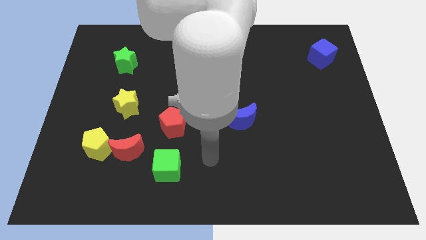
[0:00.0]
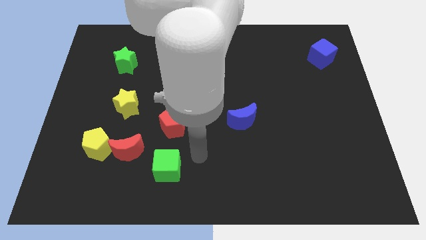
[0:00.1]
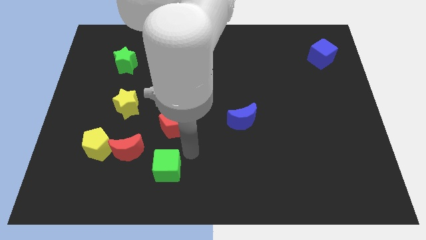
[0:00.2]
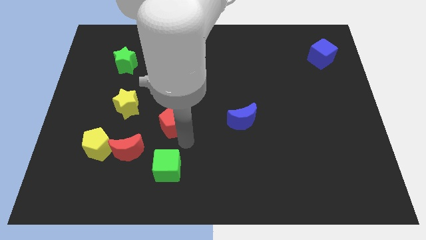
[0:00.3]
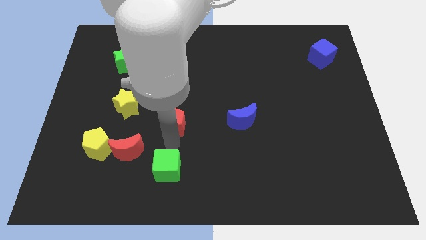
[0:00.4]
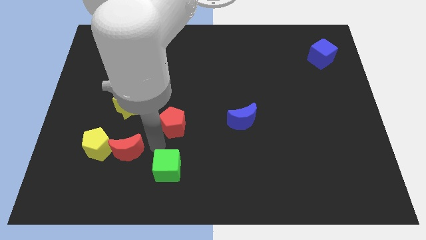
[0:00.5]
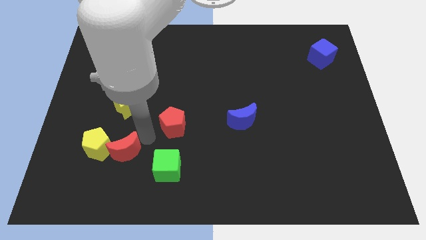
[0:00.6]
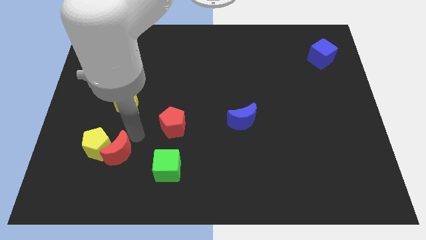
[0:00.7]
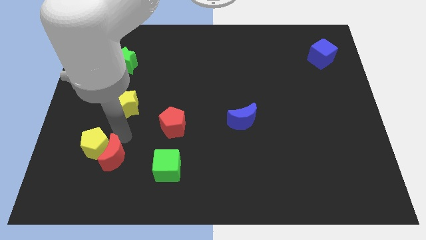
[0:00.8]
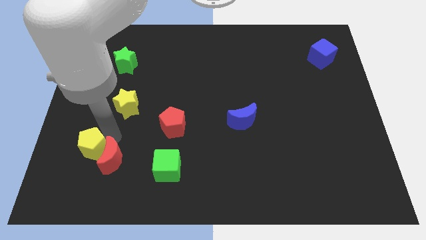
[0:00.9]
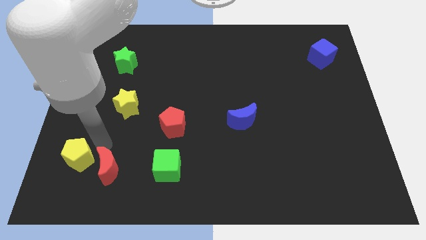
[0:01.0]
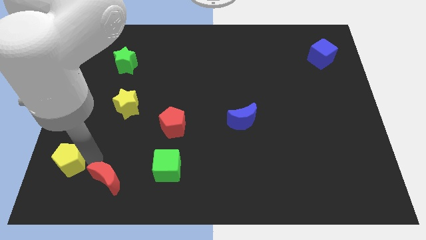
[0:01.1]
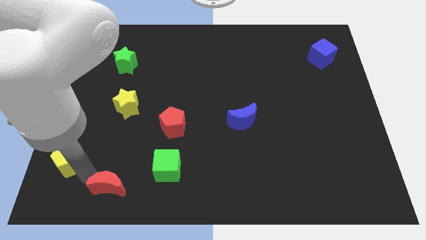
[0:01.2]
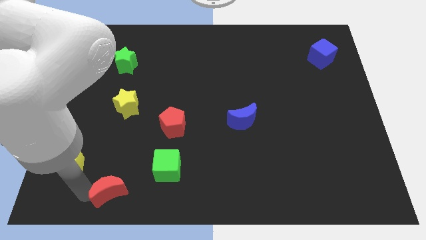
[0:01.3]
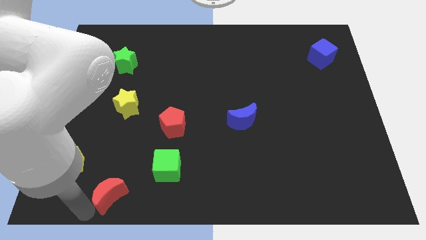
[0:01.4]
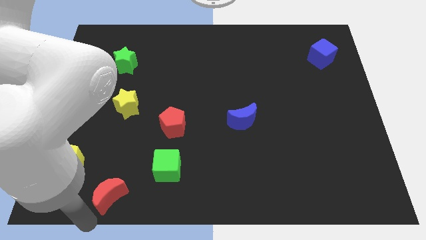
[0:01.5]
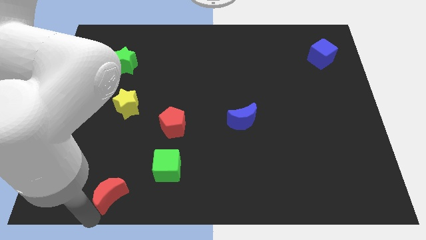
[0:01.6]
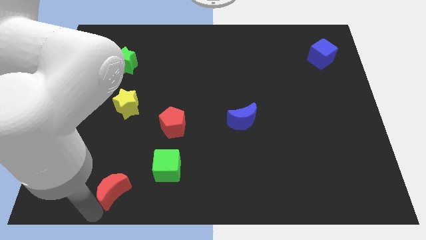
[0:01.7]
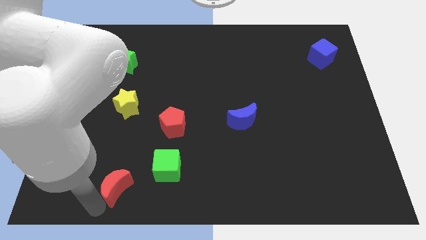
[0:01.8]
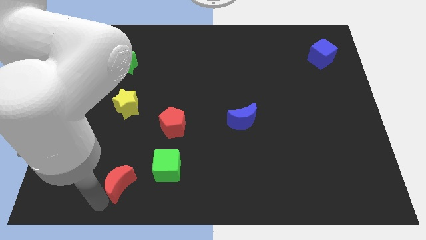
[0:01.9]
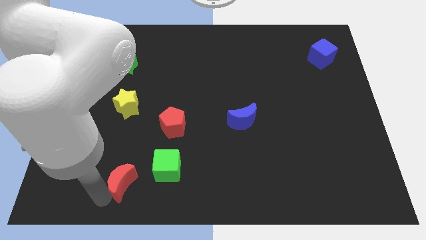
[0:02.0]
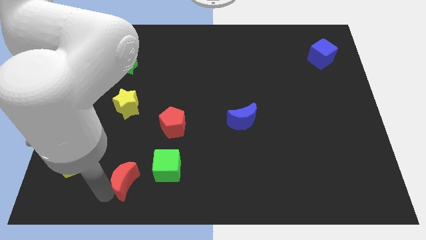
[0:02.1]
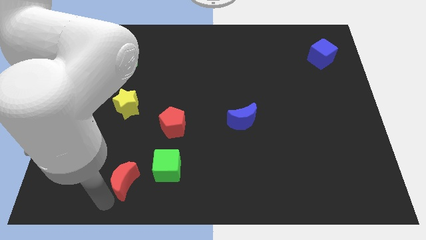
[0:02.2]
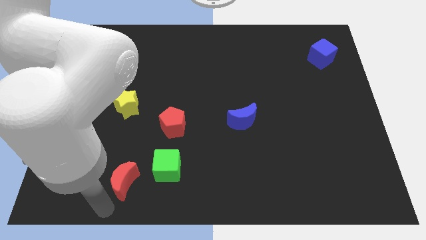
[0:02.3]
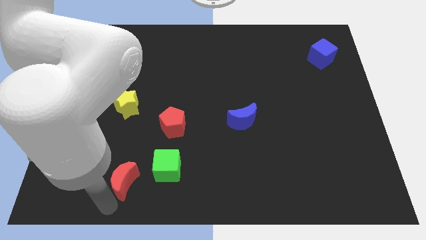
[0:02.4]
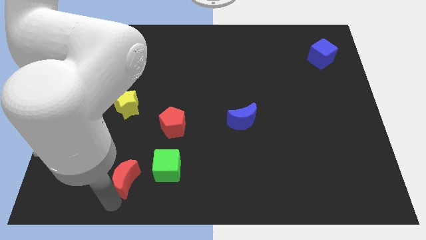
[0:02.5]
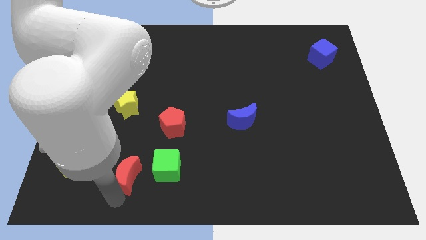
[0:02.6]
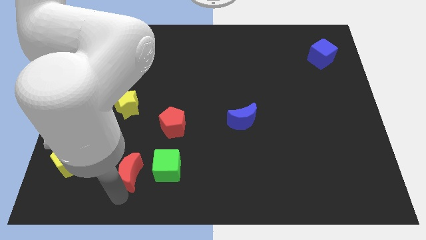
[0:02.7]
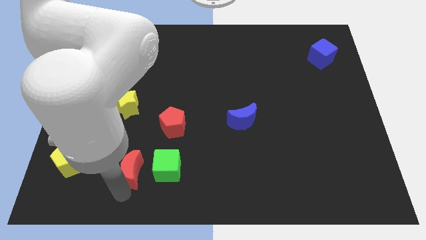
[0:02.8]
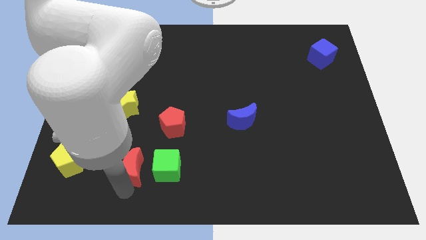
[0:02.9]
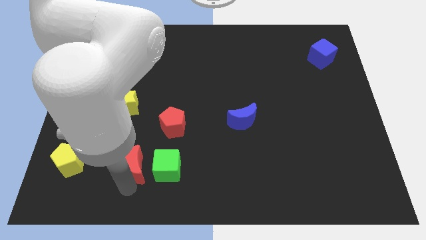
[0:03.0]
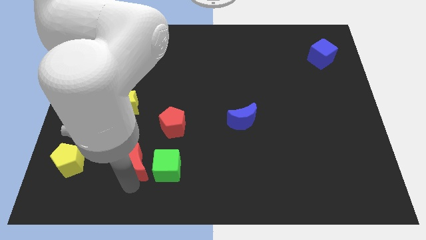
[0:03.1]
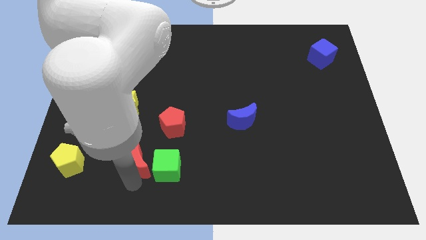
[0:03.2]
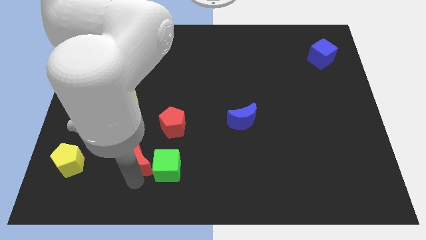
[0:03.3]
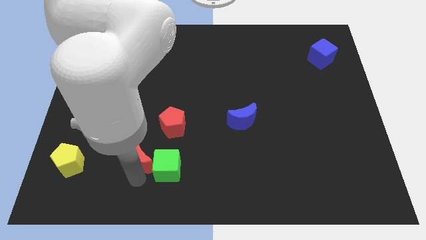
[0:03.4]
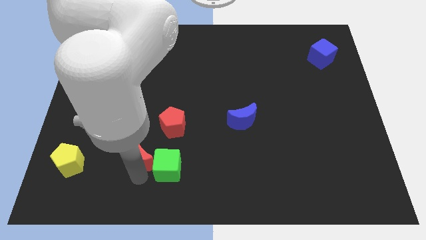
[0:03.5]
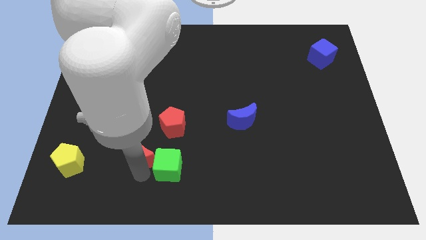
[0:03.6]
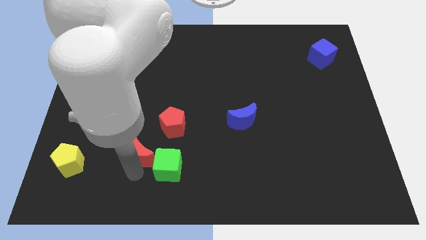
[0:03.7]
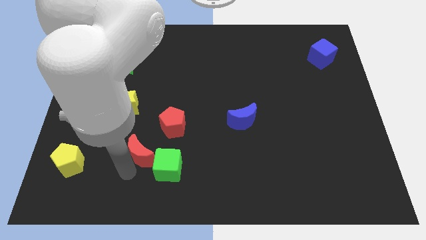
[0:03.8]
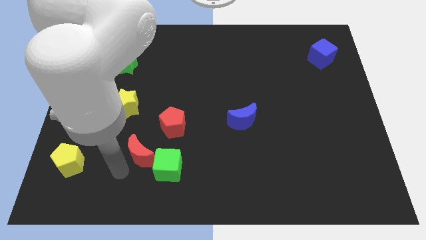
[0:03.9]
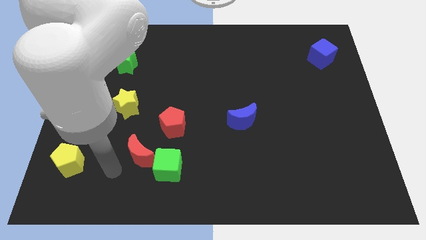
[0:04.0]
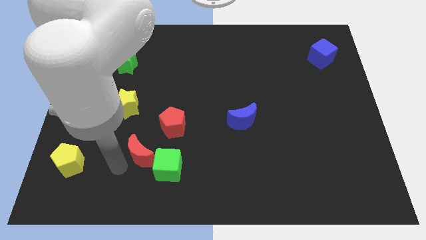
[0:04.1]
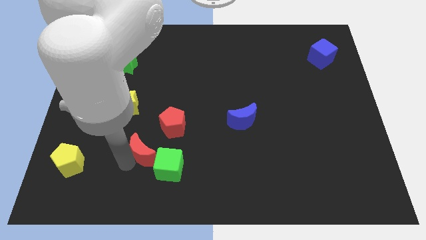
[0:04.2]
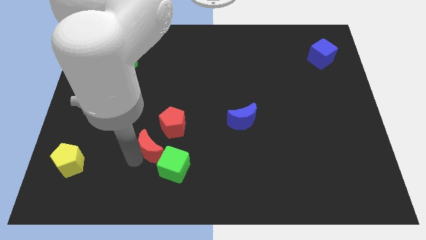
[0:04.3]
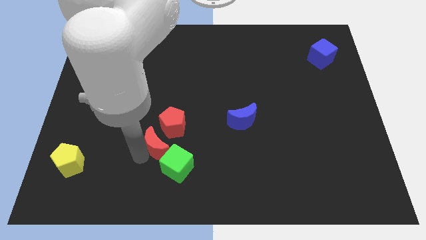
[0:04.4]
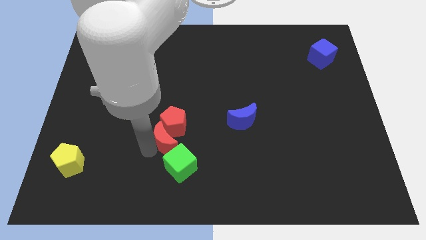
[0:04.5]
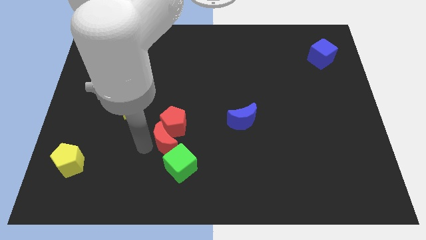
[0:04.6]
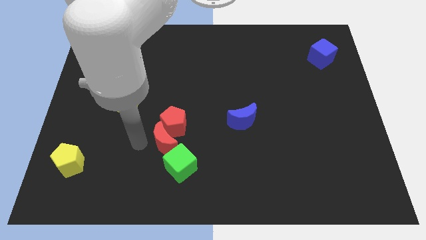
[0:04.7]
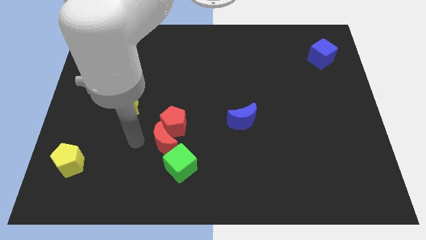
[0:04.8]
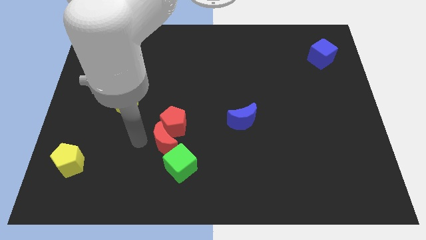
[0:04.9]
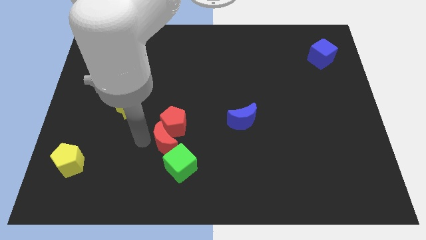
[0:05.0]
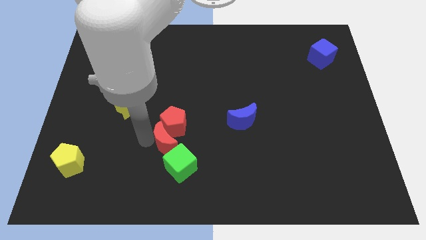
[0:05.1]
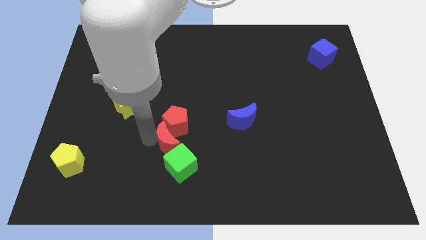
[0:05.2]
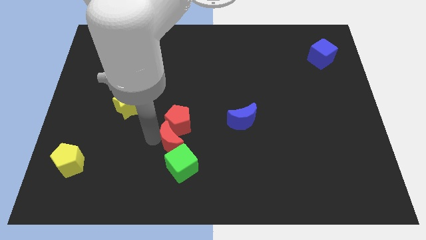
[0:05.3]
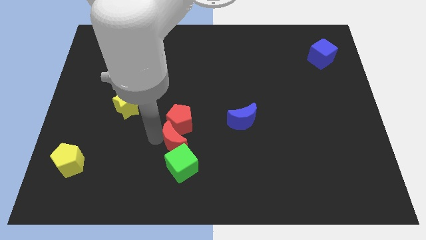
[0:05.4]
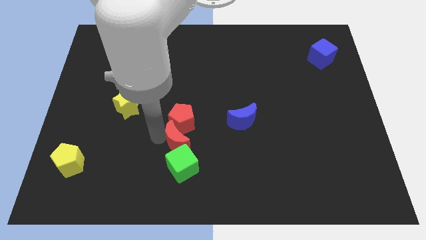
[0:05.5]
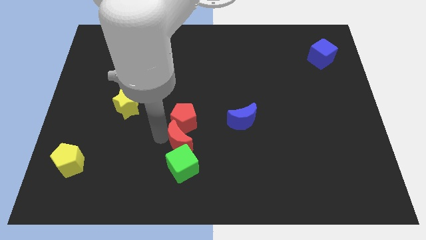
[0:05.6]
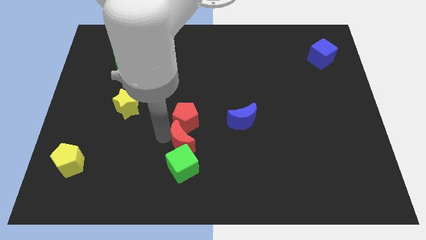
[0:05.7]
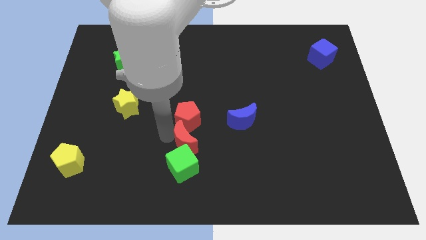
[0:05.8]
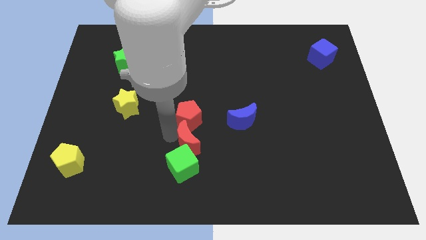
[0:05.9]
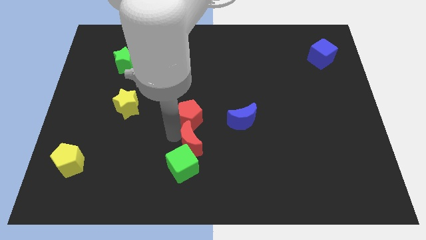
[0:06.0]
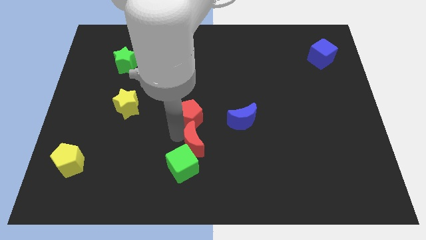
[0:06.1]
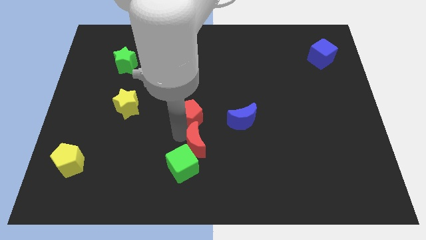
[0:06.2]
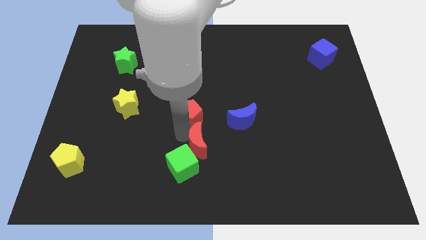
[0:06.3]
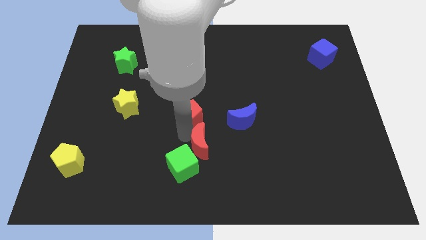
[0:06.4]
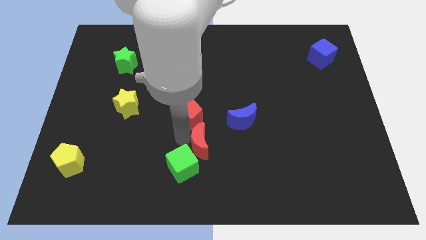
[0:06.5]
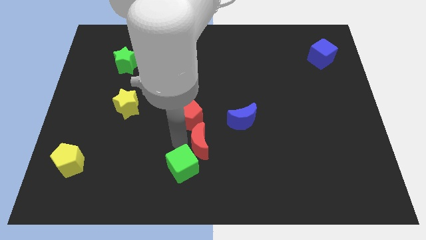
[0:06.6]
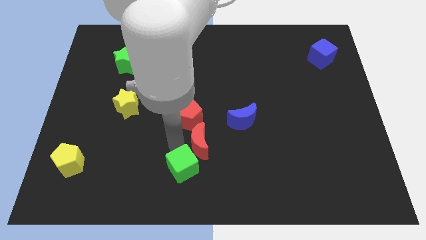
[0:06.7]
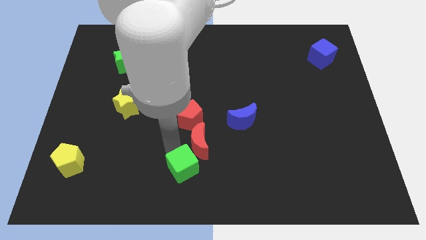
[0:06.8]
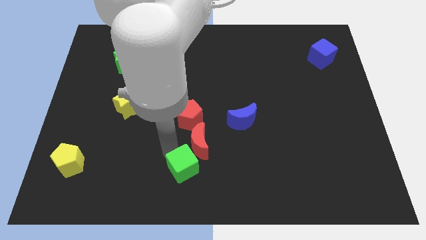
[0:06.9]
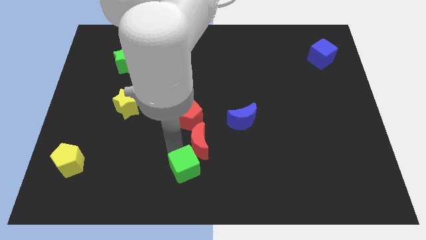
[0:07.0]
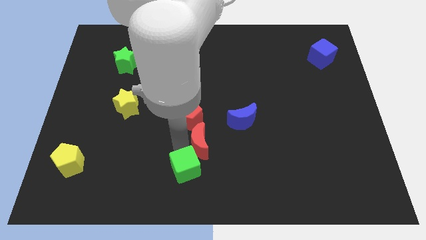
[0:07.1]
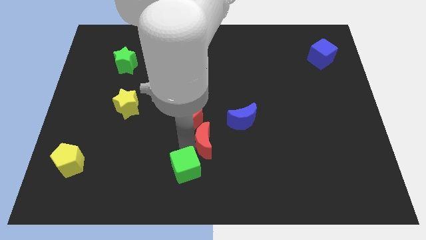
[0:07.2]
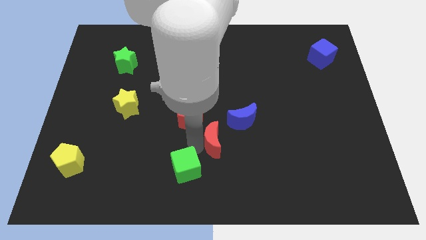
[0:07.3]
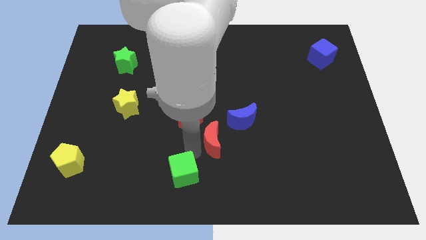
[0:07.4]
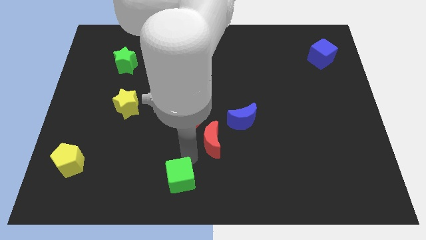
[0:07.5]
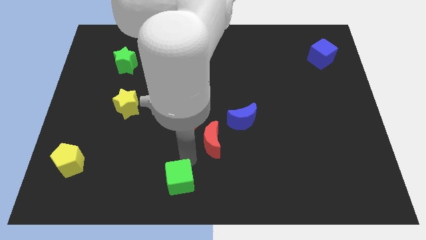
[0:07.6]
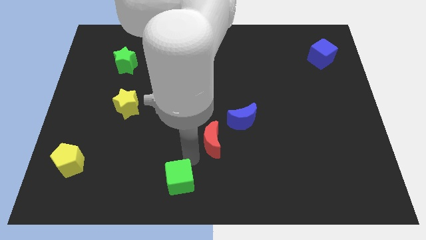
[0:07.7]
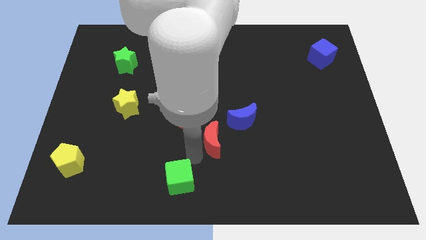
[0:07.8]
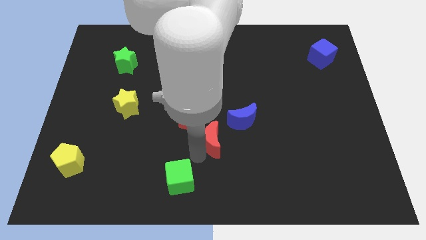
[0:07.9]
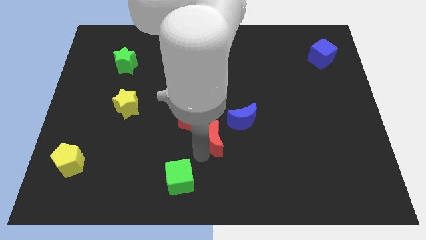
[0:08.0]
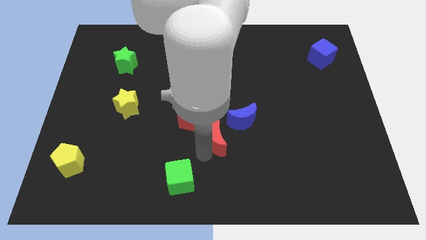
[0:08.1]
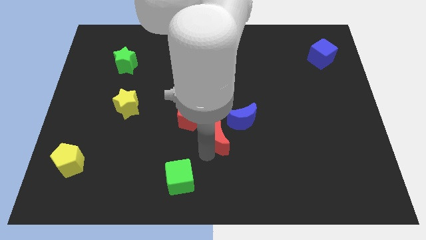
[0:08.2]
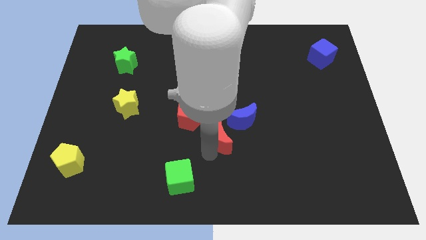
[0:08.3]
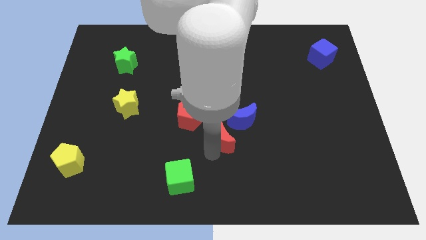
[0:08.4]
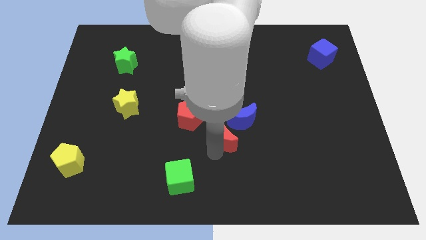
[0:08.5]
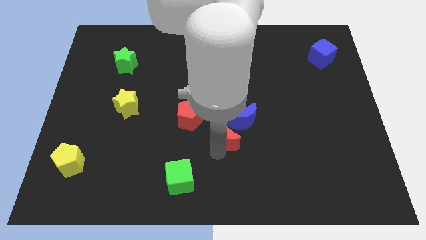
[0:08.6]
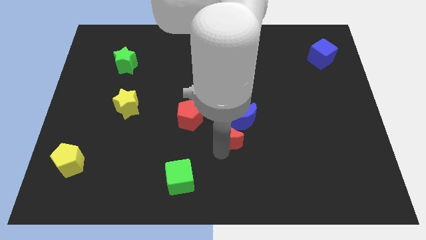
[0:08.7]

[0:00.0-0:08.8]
move the red moon close to the blue moon
